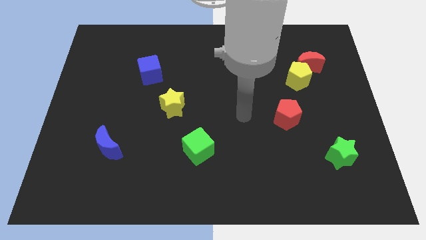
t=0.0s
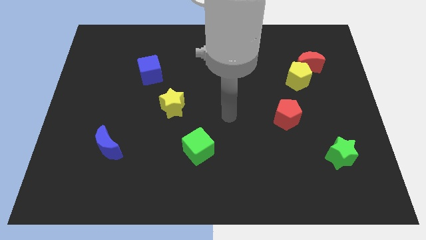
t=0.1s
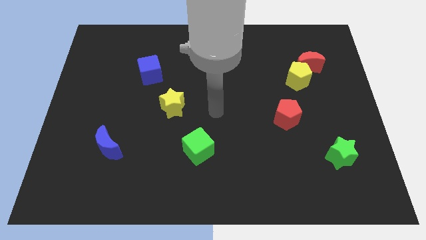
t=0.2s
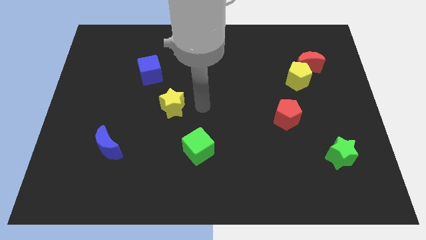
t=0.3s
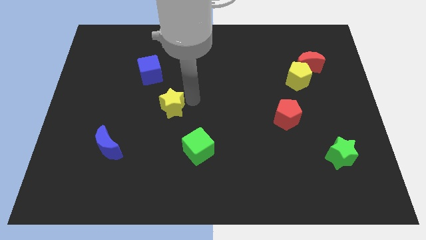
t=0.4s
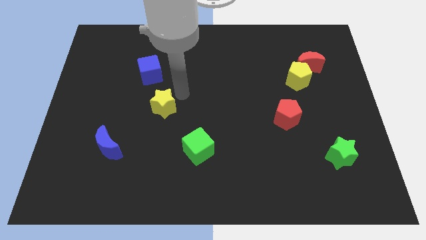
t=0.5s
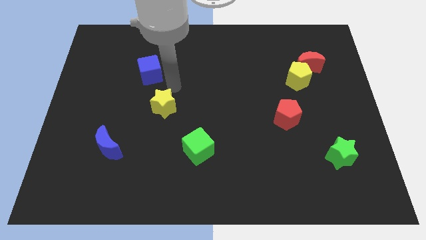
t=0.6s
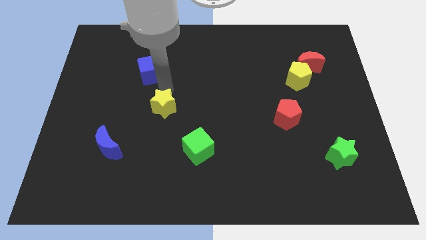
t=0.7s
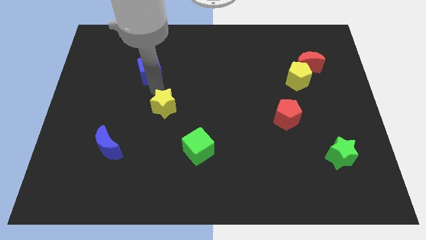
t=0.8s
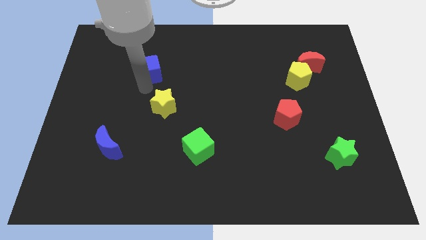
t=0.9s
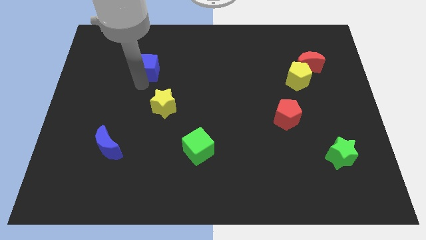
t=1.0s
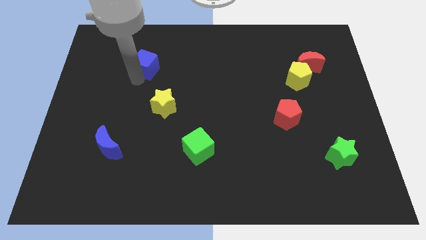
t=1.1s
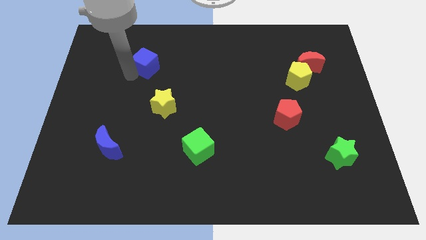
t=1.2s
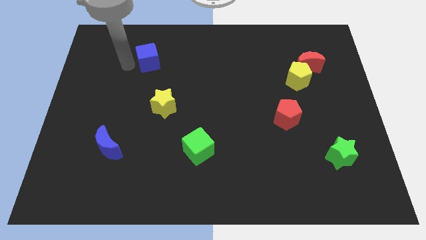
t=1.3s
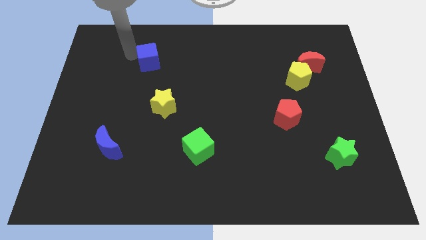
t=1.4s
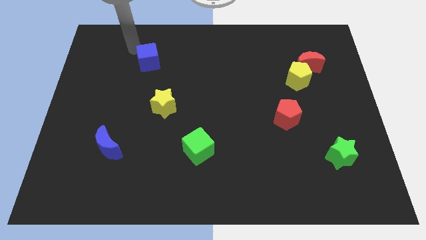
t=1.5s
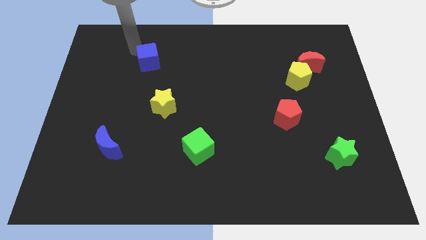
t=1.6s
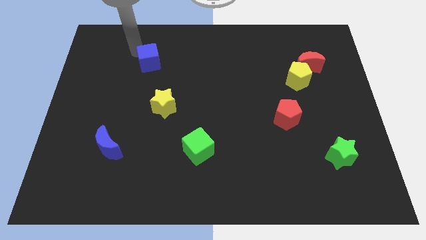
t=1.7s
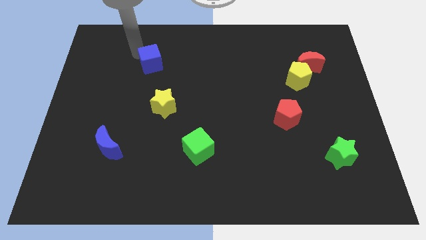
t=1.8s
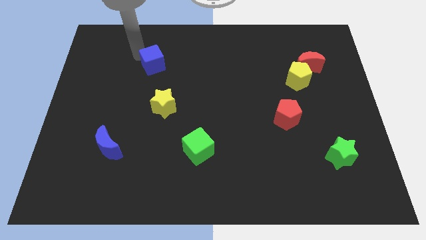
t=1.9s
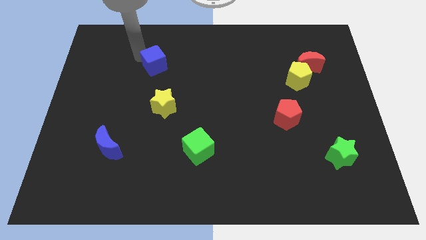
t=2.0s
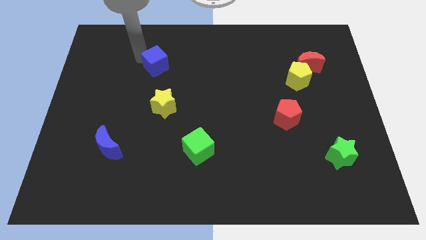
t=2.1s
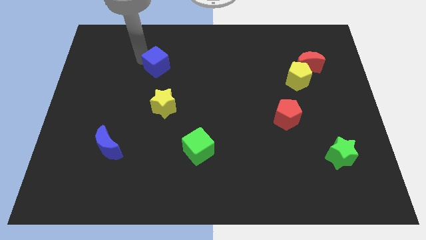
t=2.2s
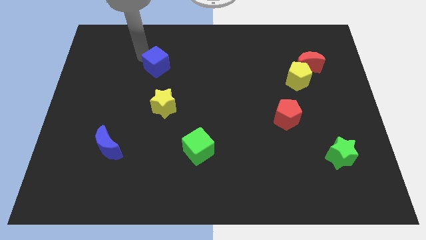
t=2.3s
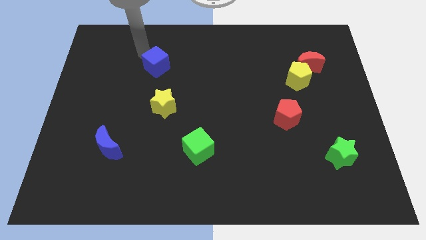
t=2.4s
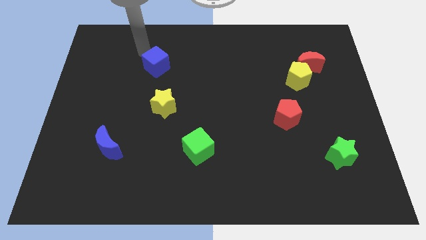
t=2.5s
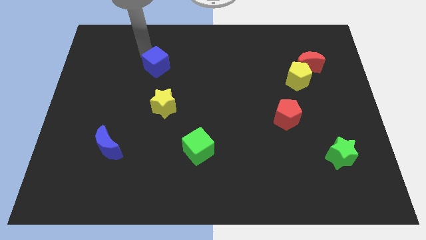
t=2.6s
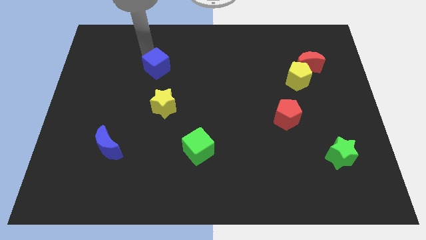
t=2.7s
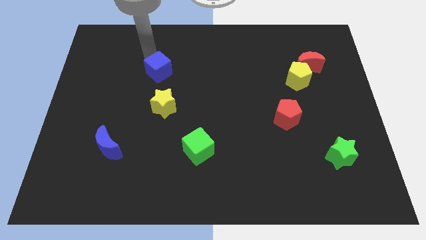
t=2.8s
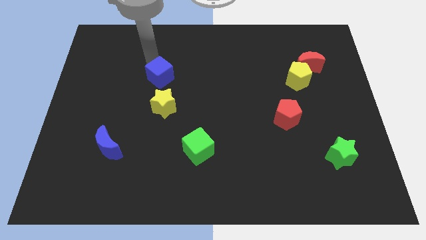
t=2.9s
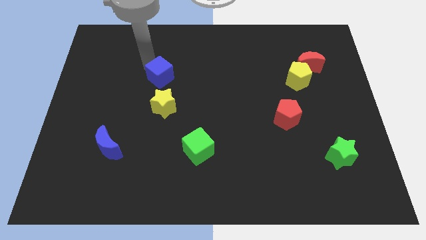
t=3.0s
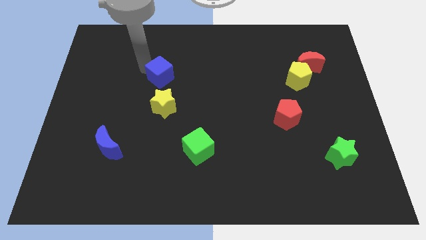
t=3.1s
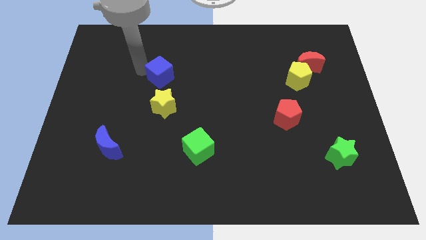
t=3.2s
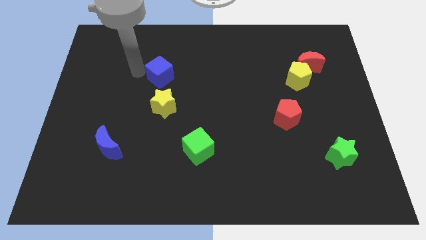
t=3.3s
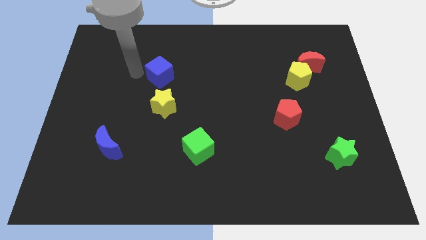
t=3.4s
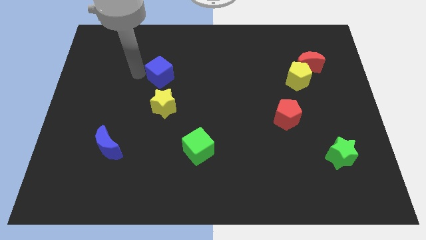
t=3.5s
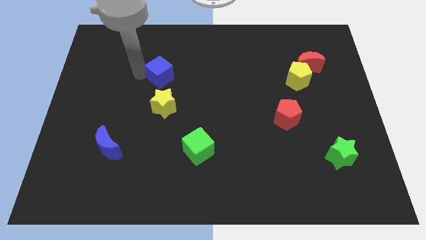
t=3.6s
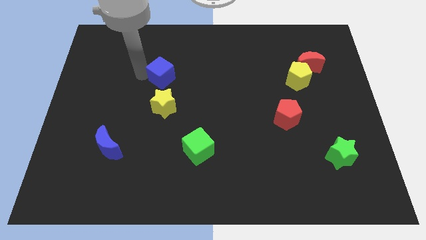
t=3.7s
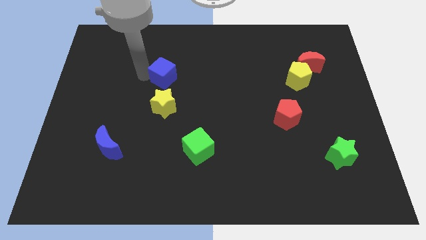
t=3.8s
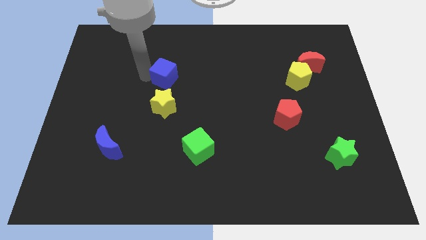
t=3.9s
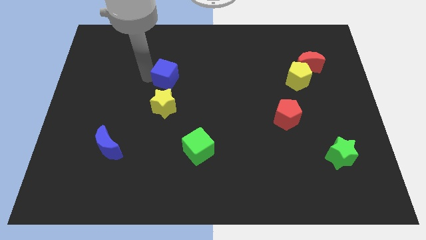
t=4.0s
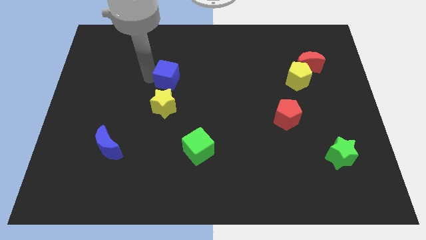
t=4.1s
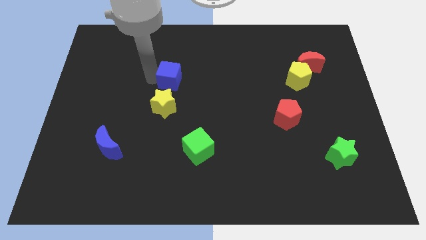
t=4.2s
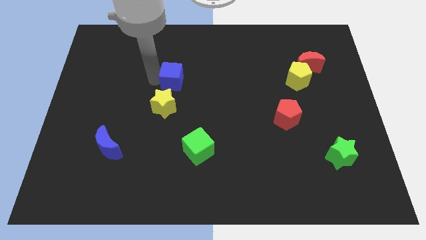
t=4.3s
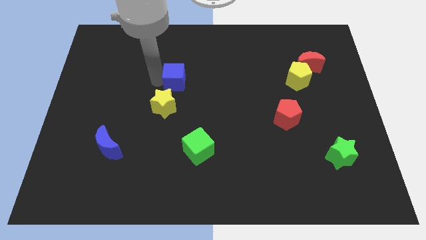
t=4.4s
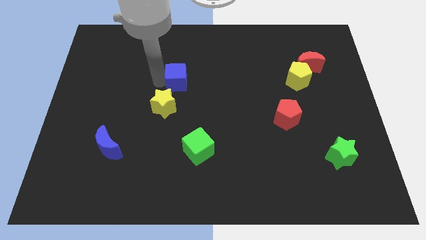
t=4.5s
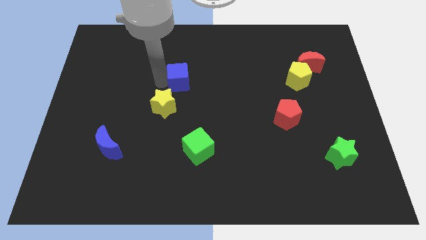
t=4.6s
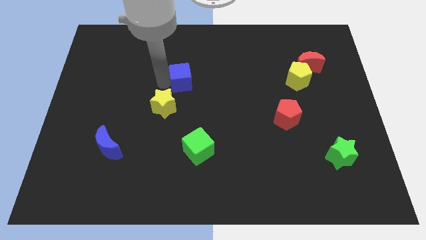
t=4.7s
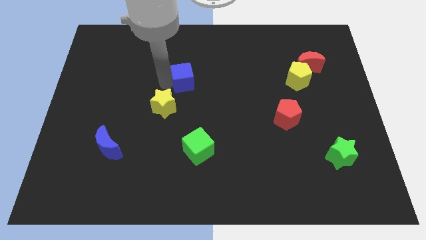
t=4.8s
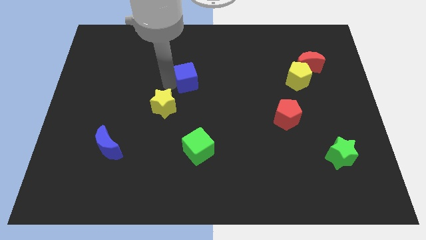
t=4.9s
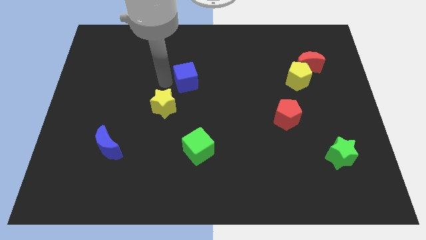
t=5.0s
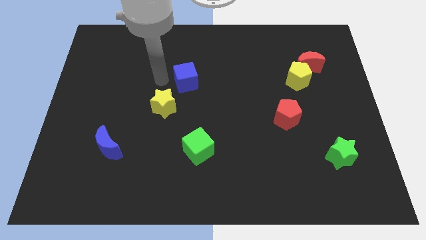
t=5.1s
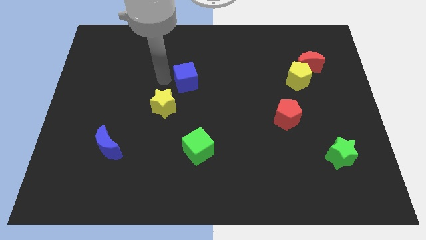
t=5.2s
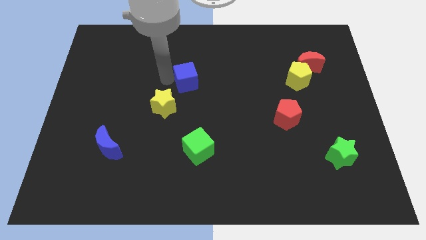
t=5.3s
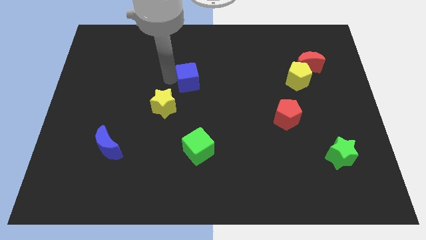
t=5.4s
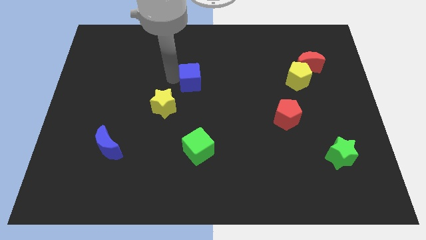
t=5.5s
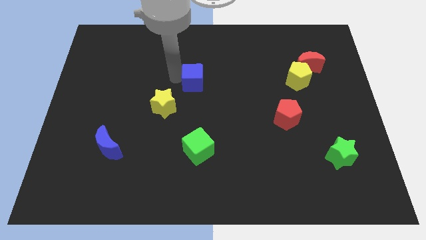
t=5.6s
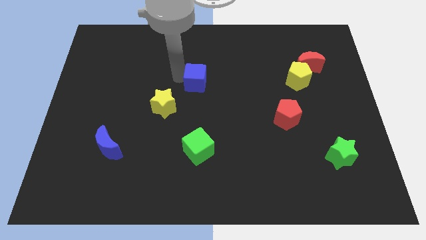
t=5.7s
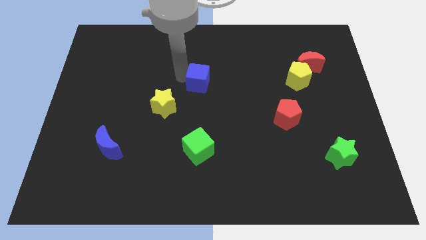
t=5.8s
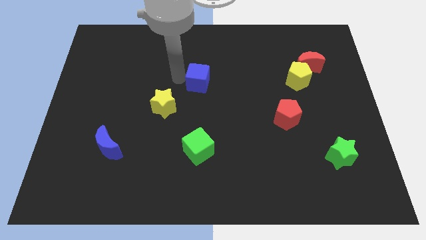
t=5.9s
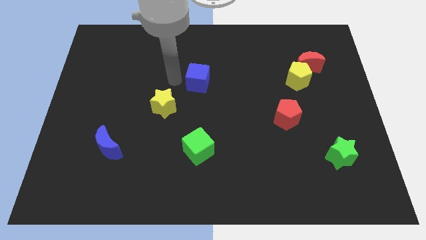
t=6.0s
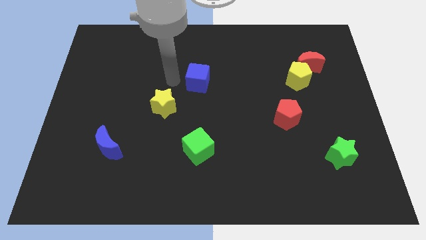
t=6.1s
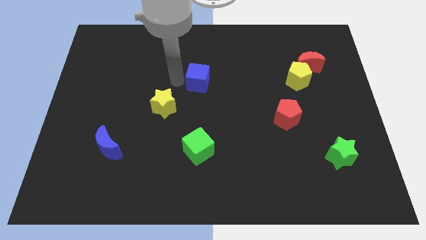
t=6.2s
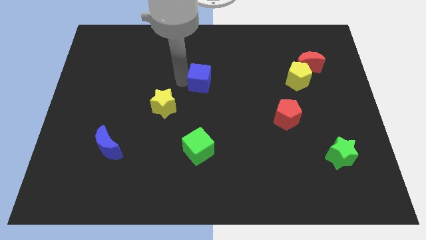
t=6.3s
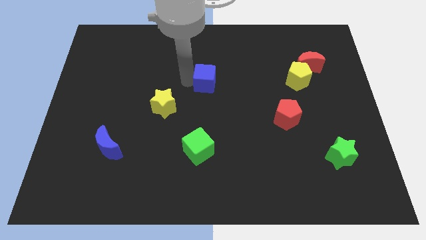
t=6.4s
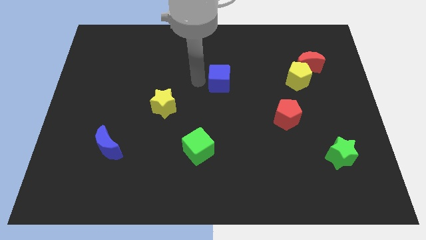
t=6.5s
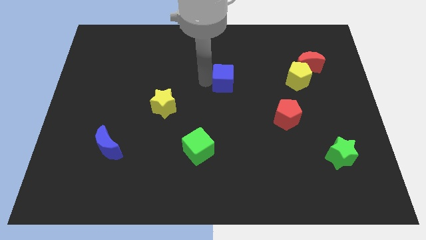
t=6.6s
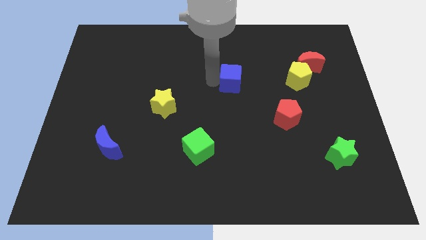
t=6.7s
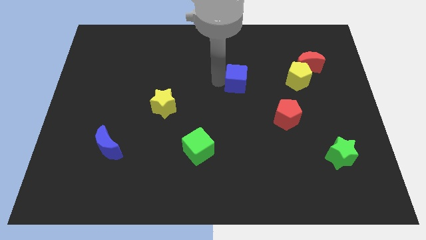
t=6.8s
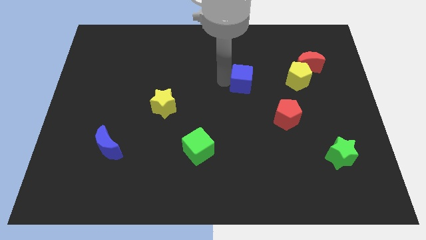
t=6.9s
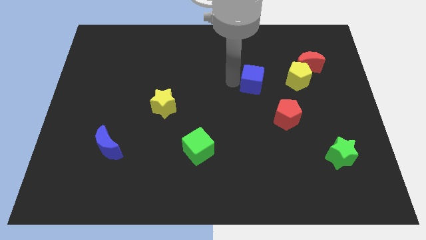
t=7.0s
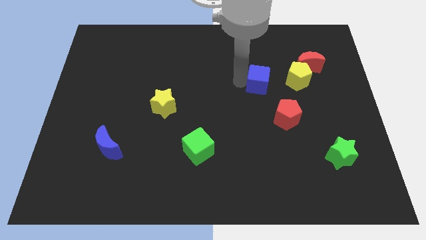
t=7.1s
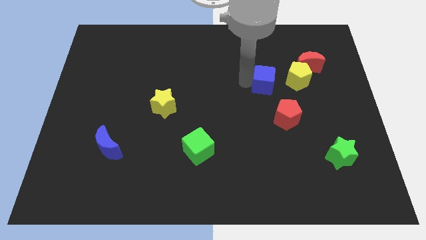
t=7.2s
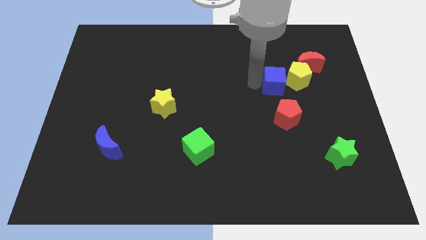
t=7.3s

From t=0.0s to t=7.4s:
push the blue cube towards the yellow pentagon
